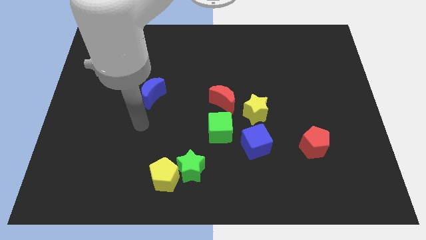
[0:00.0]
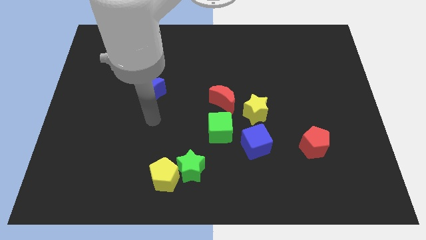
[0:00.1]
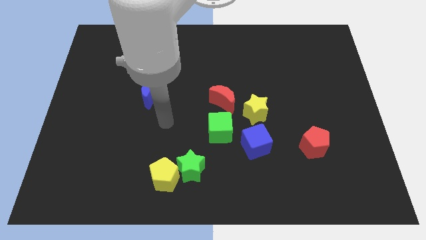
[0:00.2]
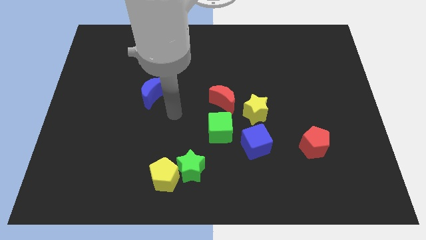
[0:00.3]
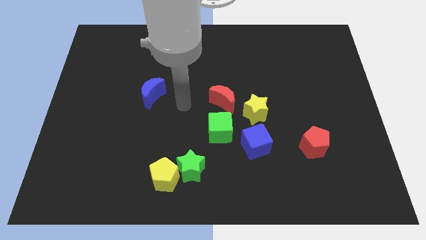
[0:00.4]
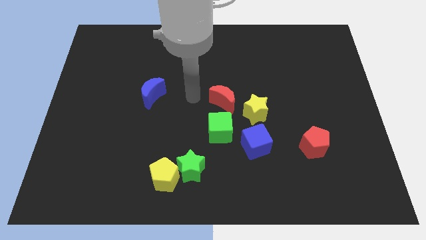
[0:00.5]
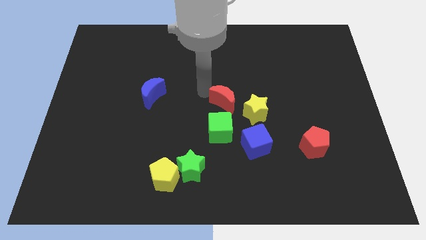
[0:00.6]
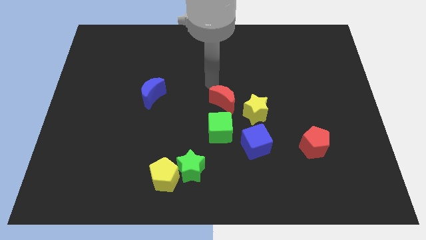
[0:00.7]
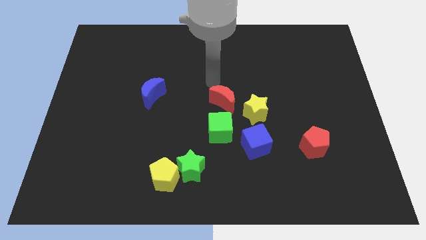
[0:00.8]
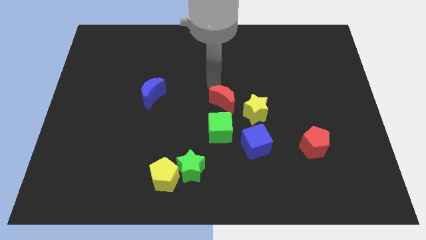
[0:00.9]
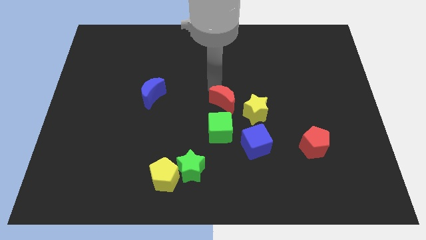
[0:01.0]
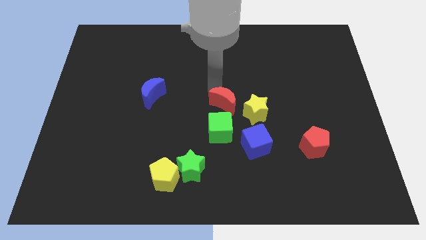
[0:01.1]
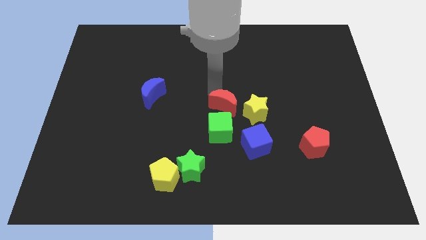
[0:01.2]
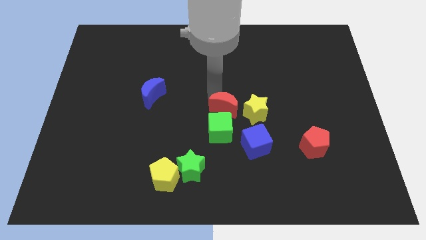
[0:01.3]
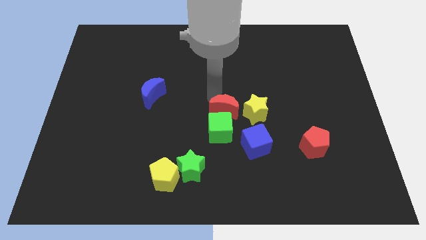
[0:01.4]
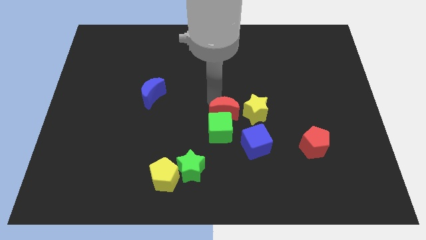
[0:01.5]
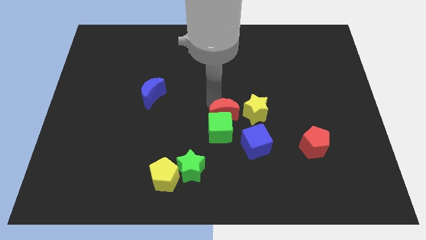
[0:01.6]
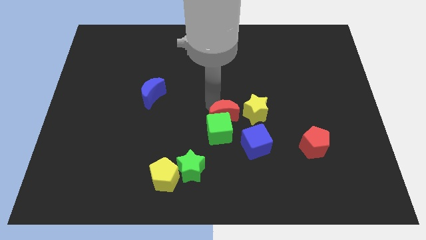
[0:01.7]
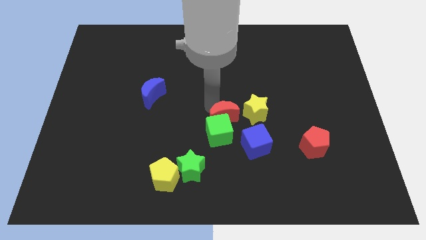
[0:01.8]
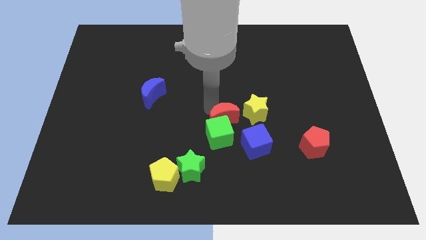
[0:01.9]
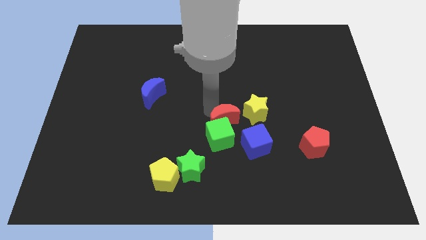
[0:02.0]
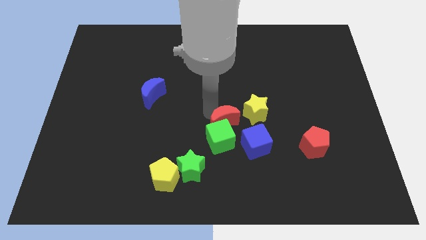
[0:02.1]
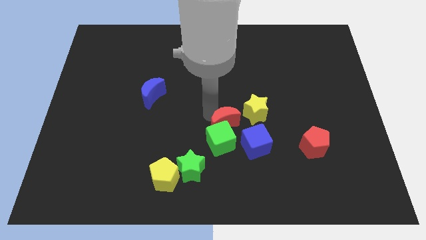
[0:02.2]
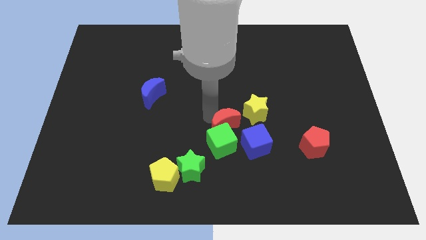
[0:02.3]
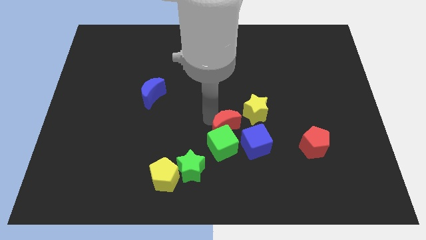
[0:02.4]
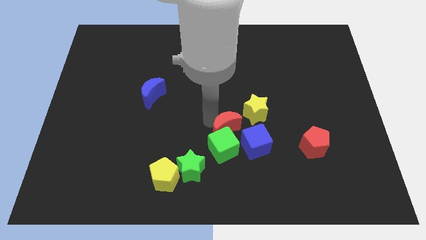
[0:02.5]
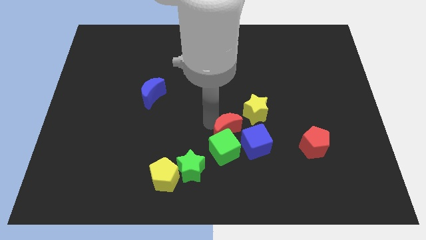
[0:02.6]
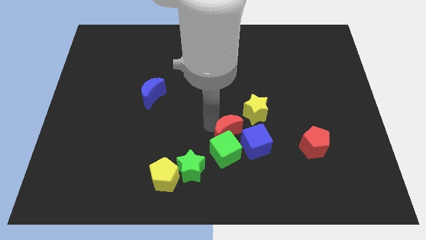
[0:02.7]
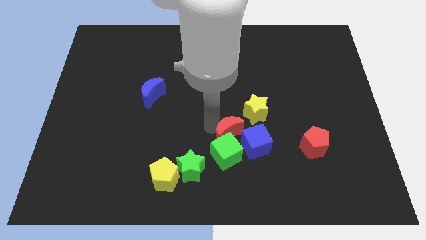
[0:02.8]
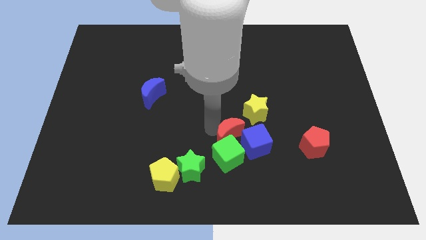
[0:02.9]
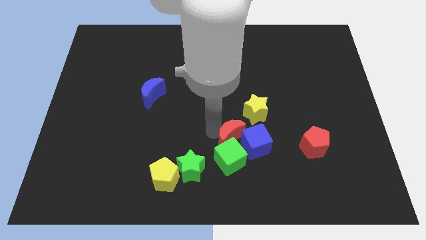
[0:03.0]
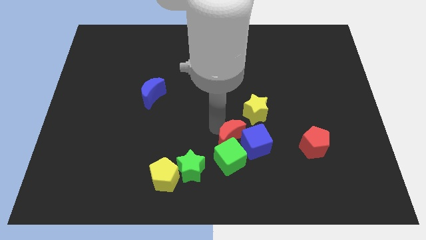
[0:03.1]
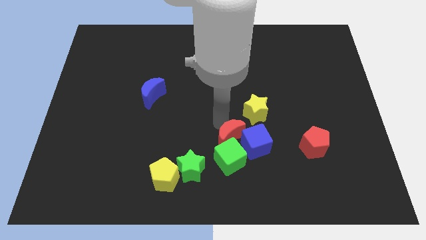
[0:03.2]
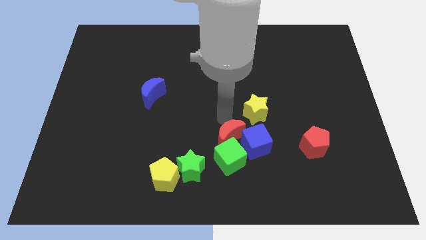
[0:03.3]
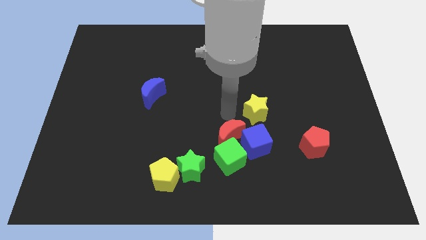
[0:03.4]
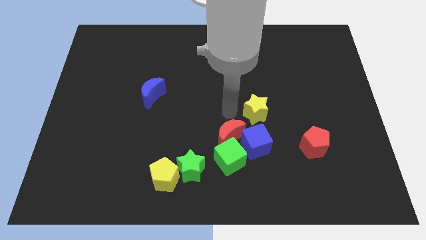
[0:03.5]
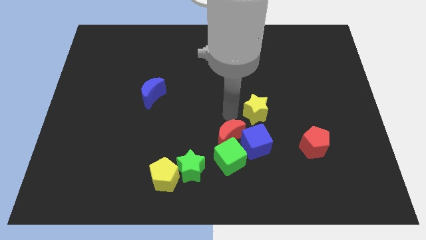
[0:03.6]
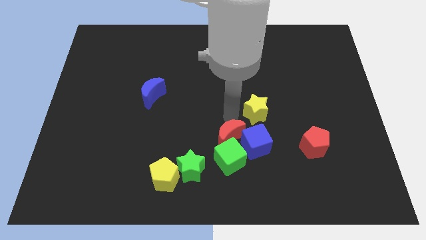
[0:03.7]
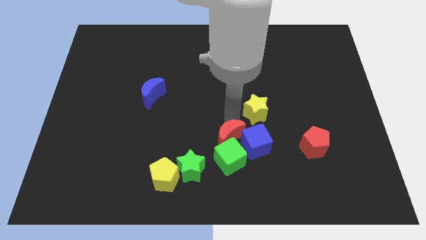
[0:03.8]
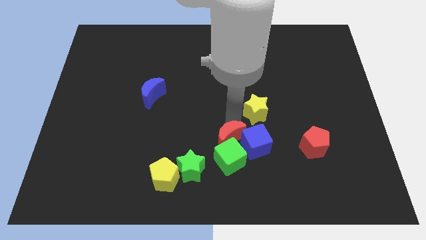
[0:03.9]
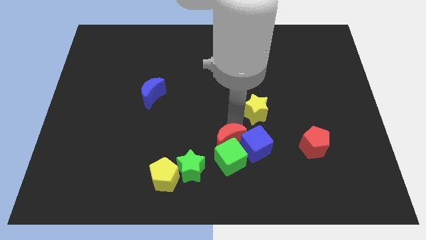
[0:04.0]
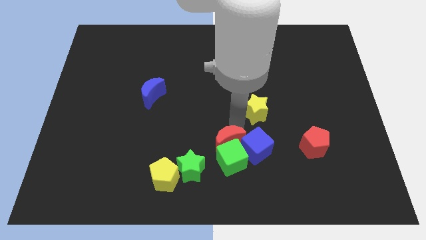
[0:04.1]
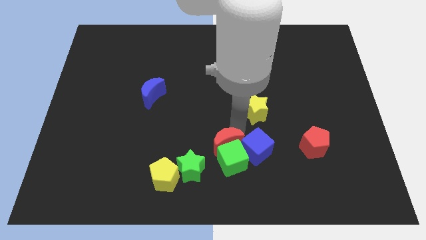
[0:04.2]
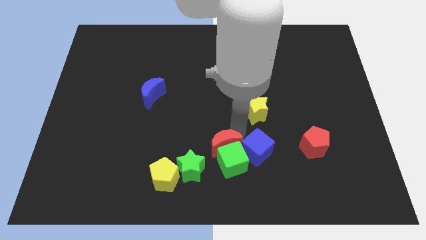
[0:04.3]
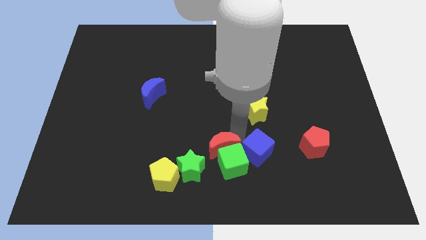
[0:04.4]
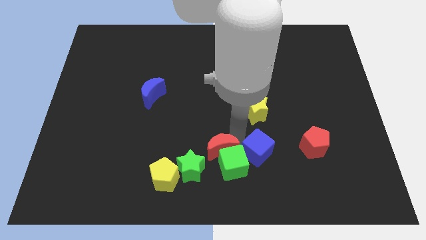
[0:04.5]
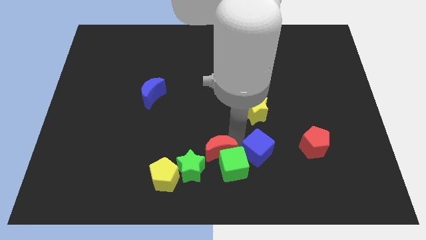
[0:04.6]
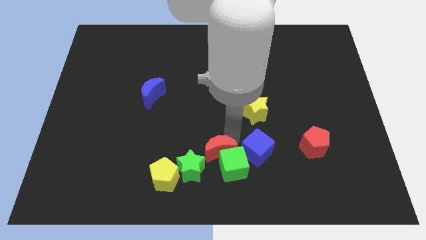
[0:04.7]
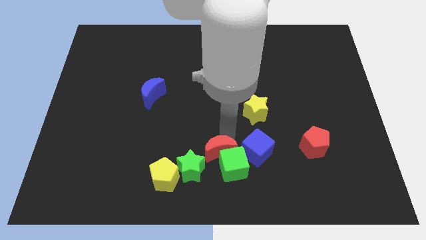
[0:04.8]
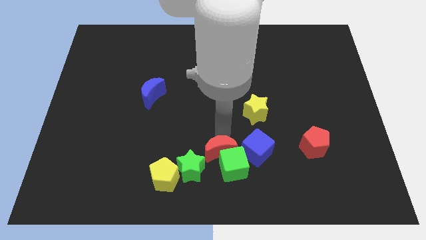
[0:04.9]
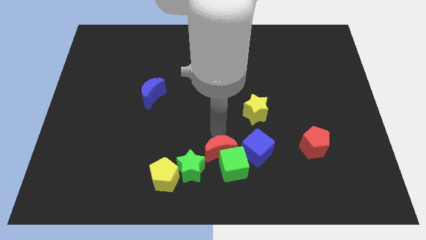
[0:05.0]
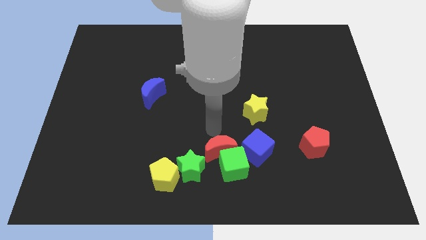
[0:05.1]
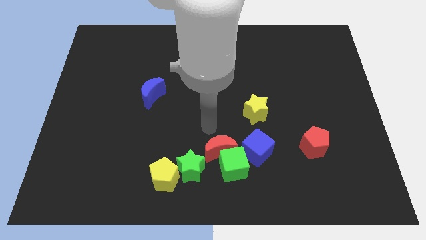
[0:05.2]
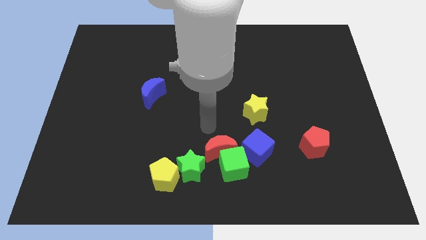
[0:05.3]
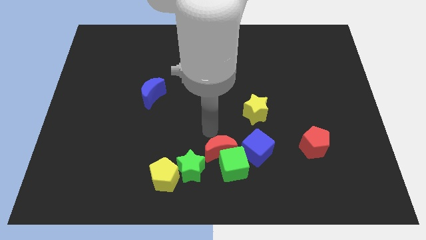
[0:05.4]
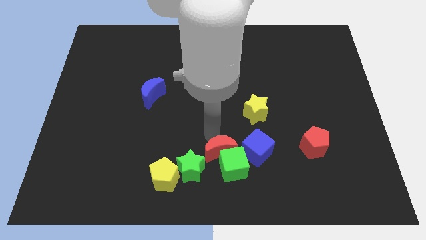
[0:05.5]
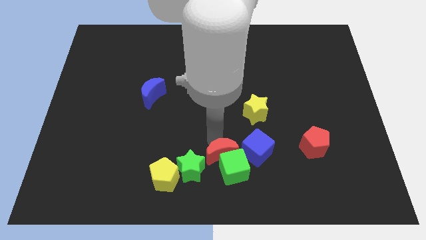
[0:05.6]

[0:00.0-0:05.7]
push the red moon to the bottom

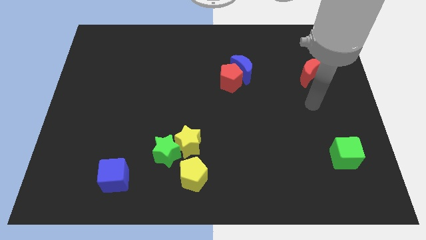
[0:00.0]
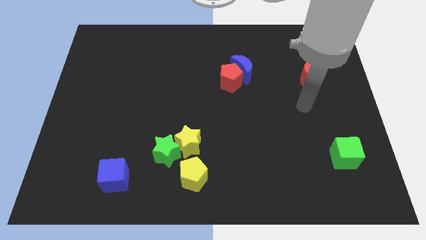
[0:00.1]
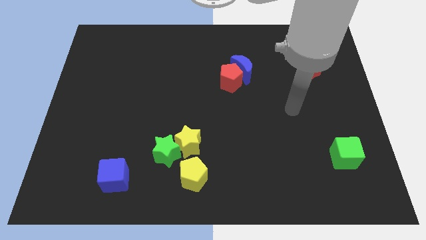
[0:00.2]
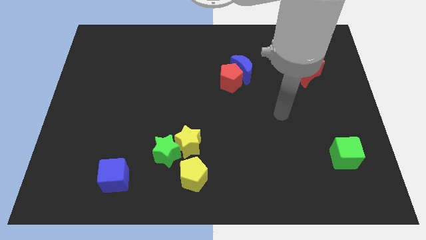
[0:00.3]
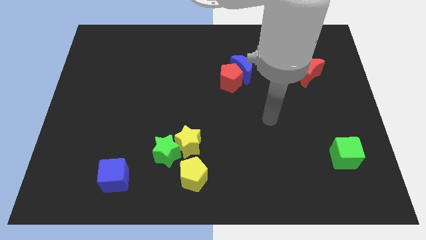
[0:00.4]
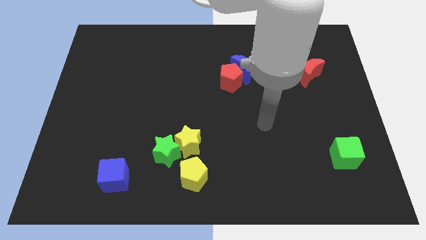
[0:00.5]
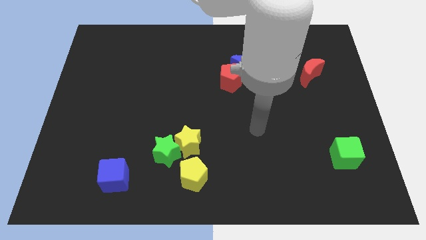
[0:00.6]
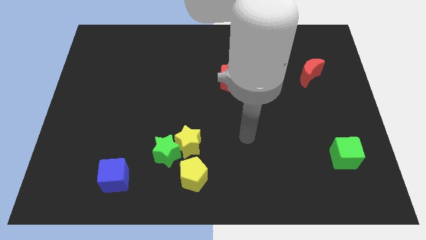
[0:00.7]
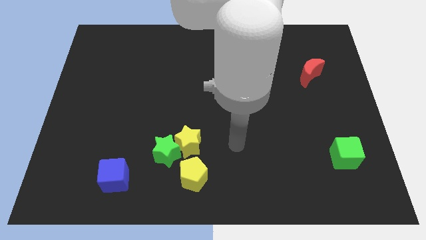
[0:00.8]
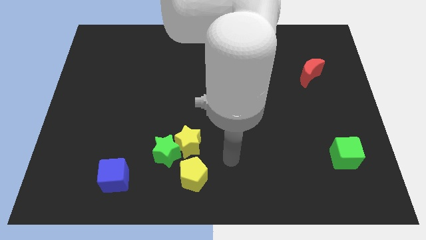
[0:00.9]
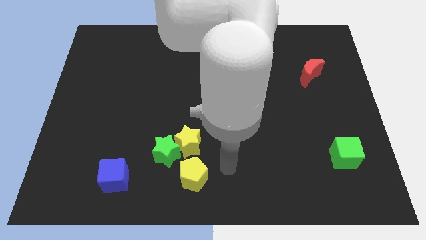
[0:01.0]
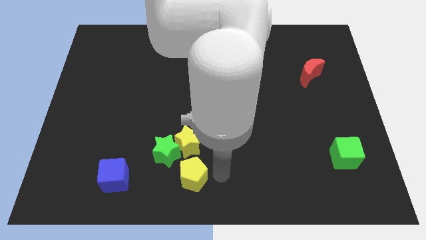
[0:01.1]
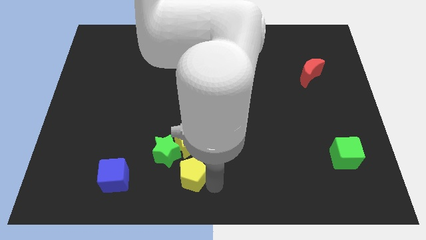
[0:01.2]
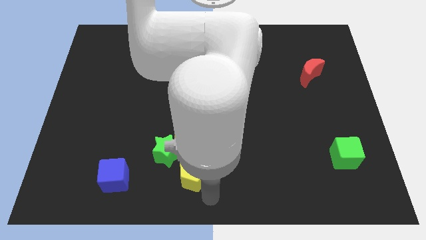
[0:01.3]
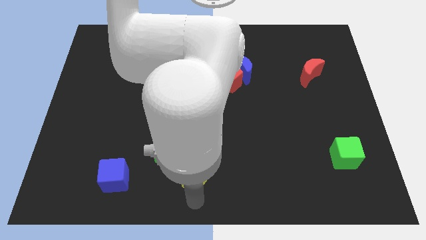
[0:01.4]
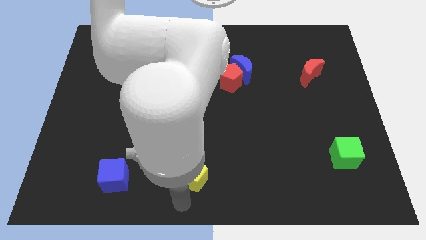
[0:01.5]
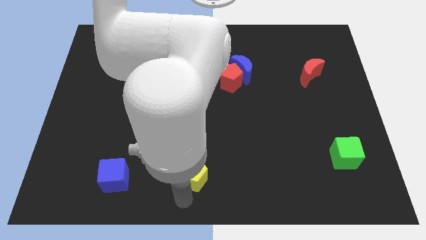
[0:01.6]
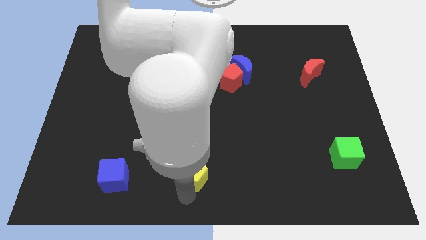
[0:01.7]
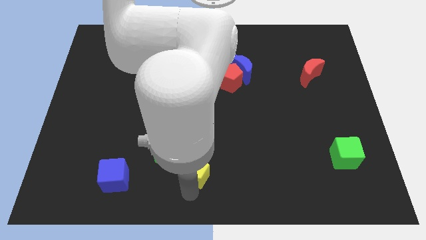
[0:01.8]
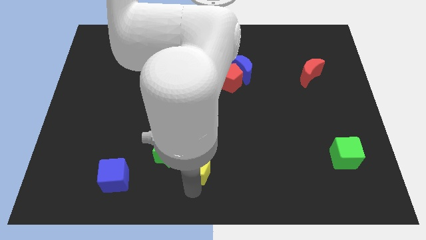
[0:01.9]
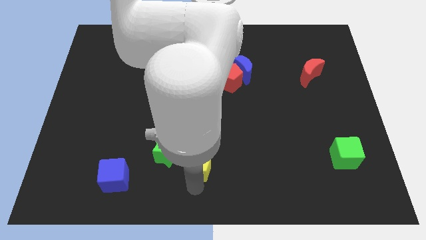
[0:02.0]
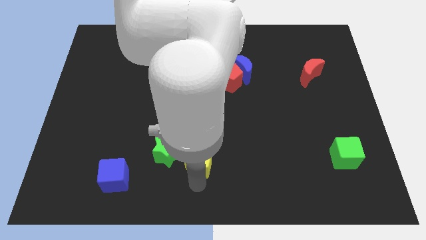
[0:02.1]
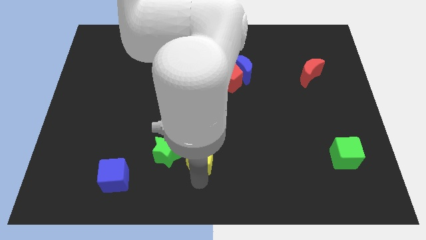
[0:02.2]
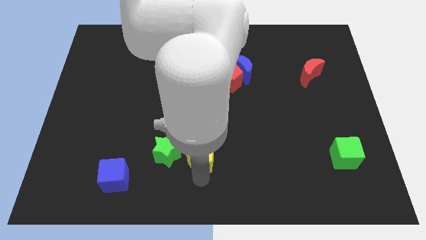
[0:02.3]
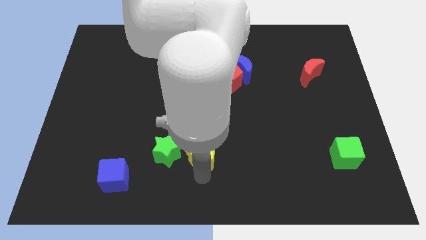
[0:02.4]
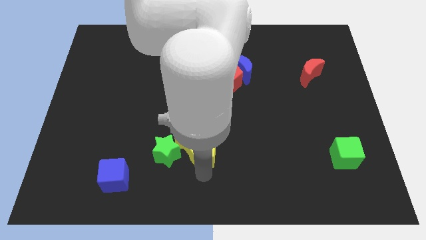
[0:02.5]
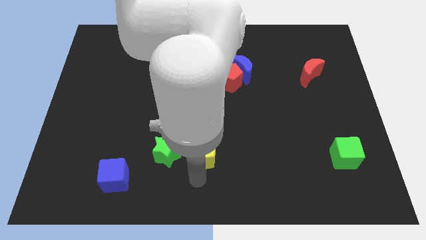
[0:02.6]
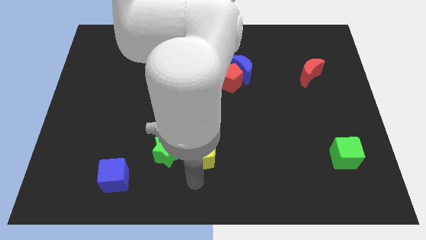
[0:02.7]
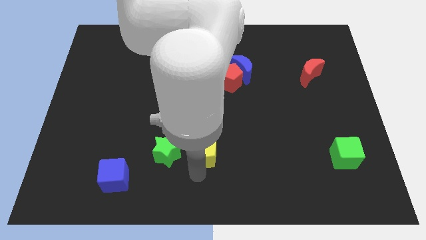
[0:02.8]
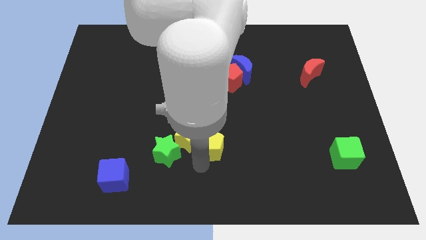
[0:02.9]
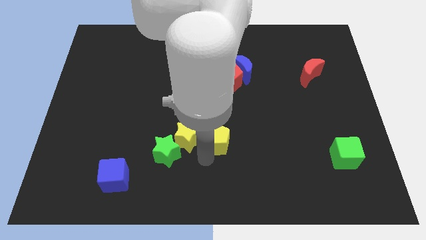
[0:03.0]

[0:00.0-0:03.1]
move the yellow pentagon to the center
